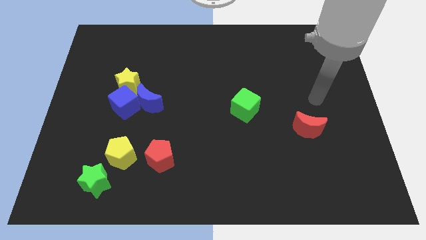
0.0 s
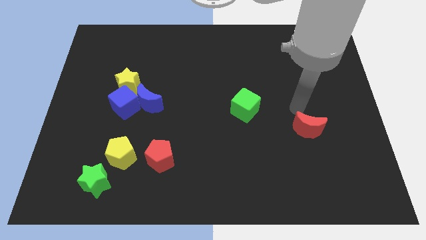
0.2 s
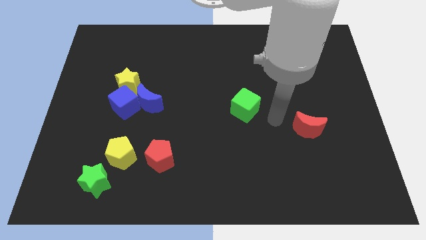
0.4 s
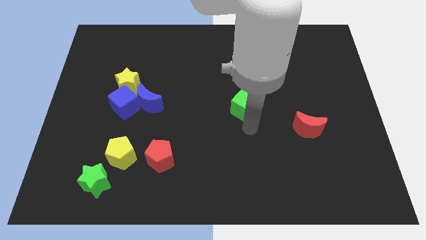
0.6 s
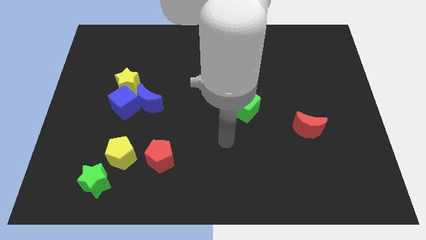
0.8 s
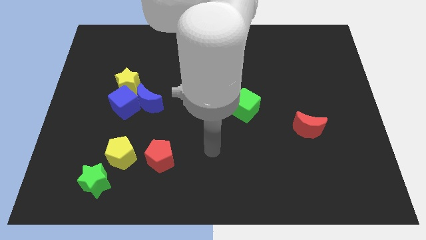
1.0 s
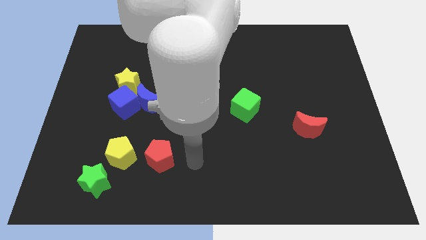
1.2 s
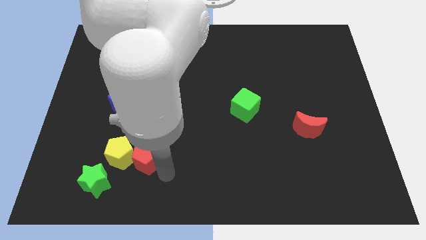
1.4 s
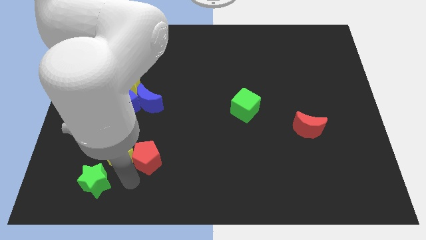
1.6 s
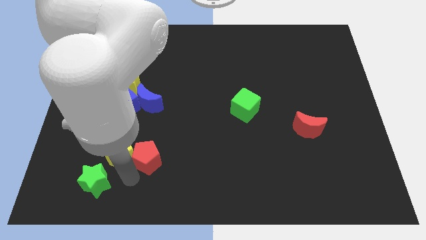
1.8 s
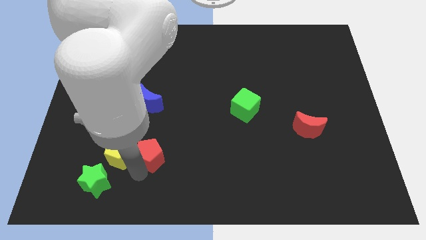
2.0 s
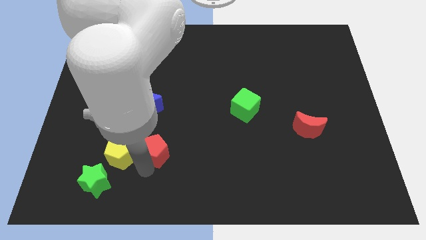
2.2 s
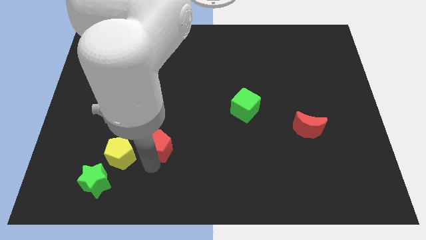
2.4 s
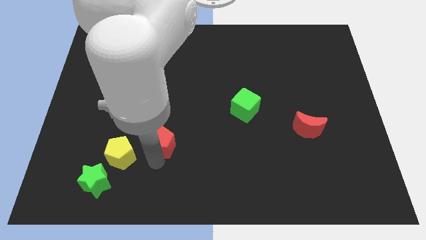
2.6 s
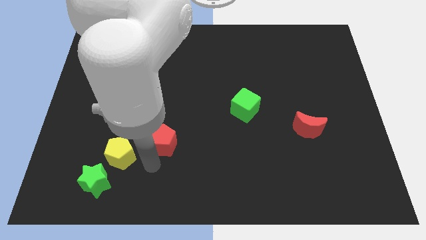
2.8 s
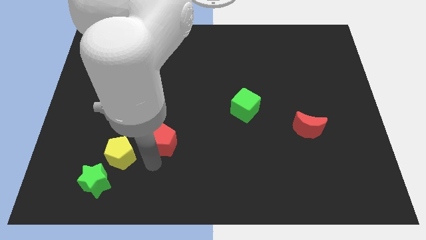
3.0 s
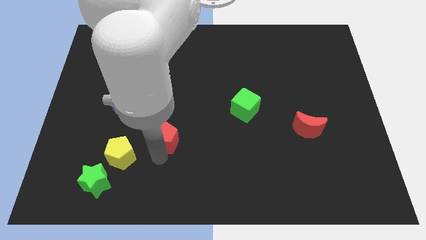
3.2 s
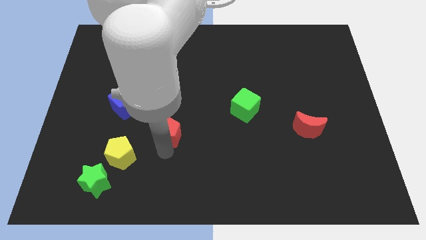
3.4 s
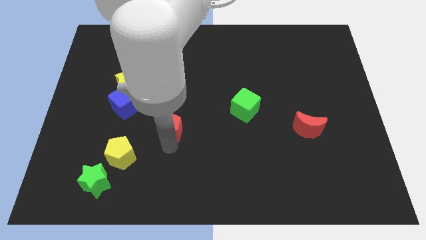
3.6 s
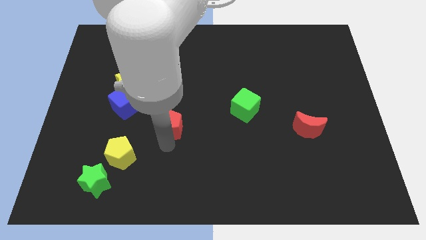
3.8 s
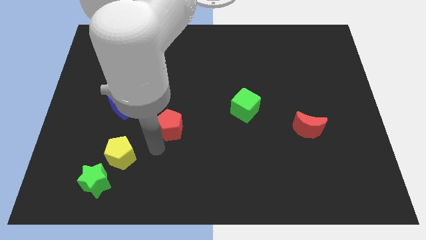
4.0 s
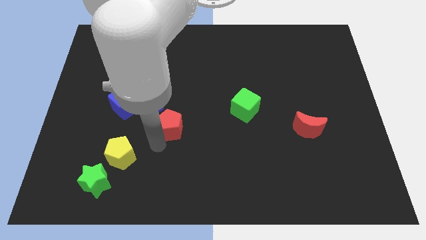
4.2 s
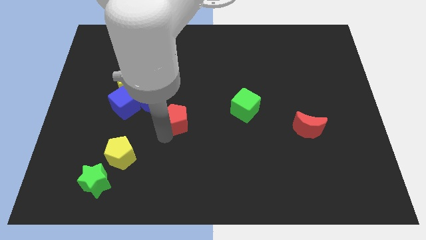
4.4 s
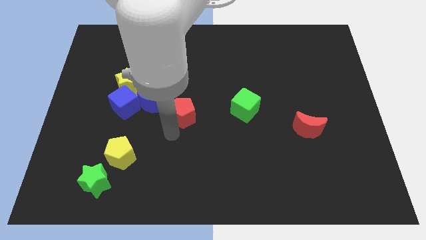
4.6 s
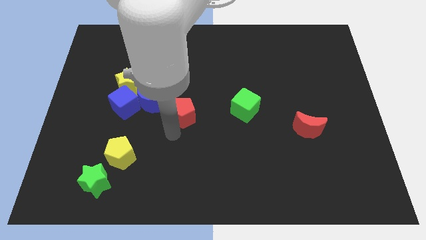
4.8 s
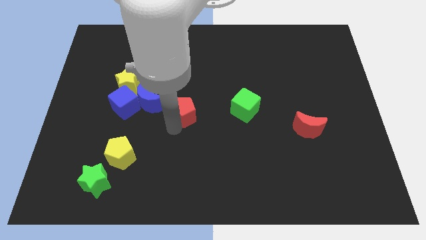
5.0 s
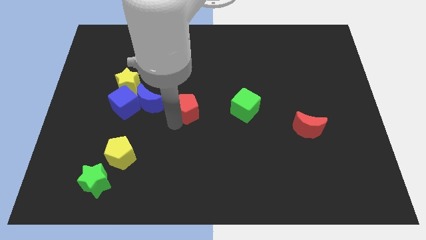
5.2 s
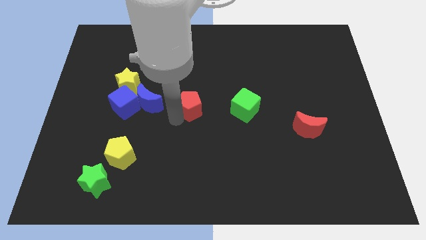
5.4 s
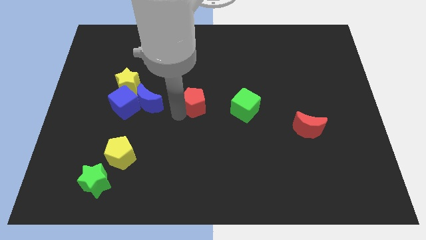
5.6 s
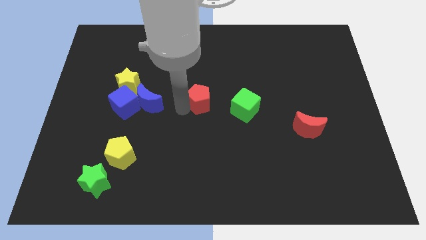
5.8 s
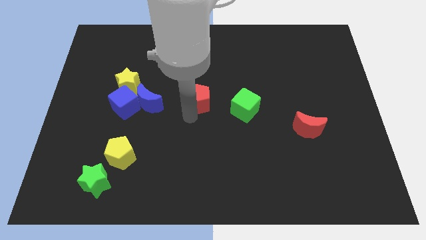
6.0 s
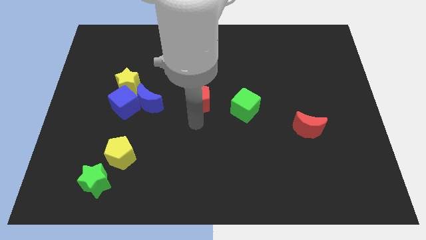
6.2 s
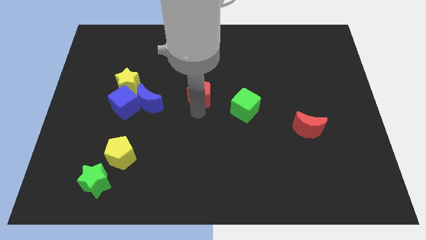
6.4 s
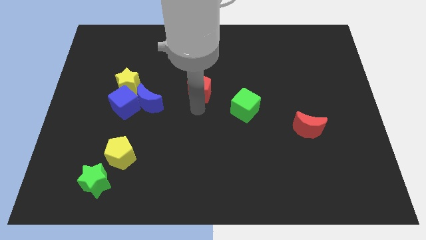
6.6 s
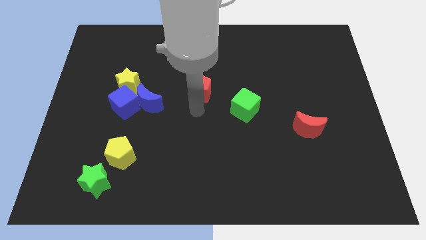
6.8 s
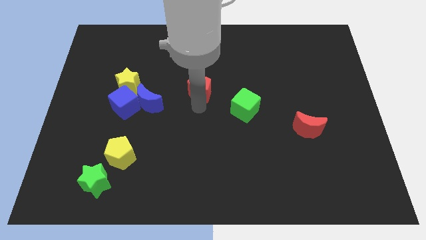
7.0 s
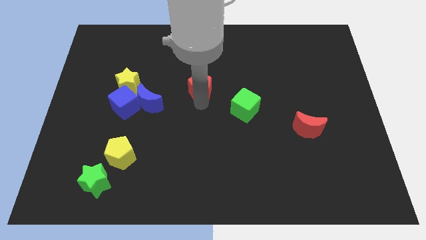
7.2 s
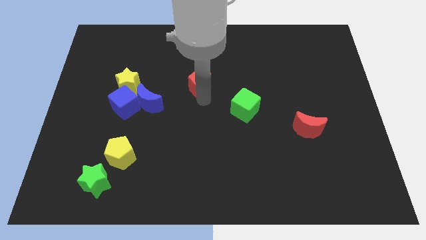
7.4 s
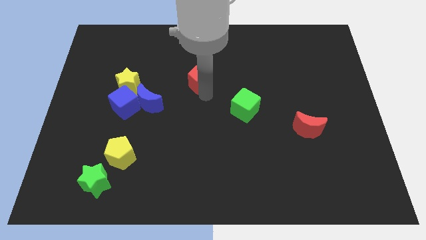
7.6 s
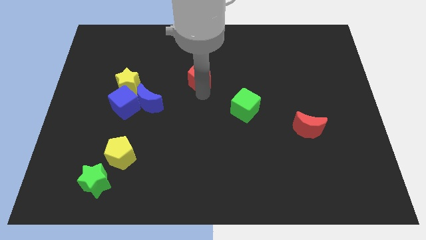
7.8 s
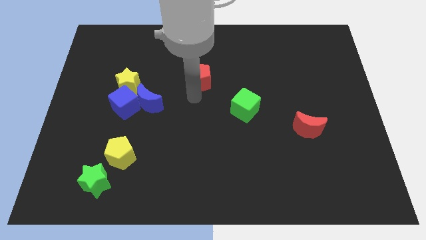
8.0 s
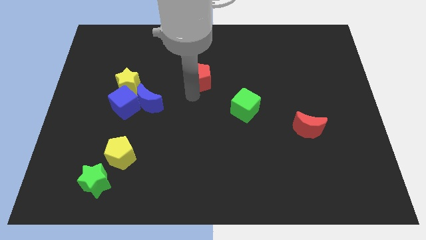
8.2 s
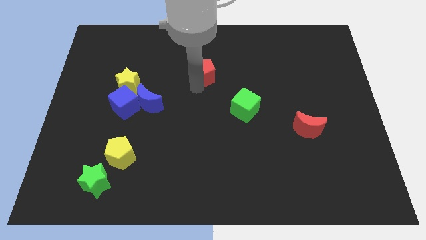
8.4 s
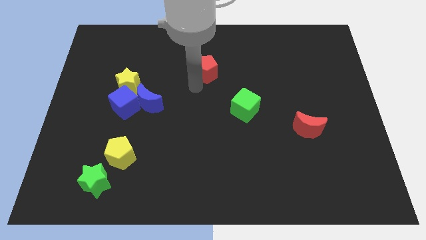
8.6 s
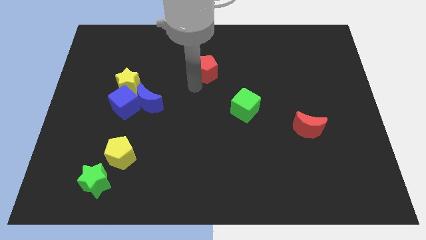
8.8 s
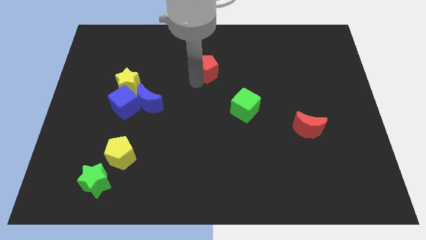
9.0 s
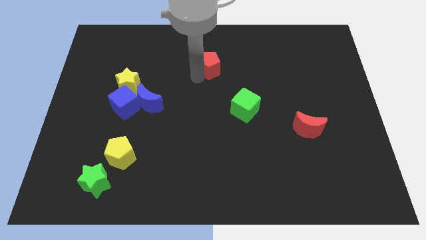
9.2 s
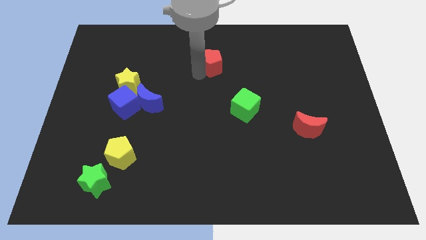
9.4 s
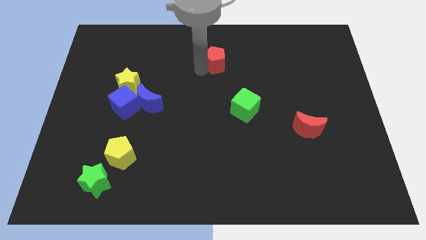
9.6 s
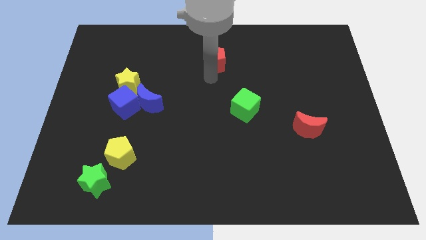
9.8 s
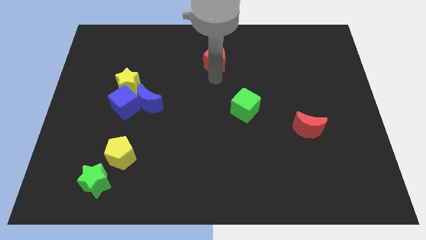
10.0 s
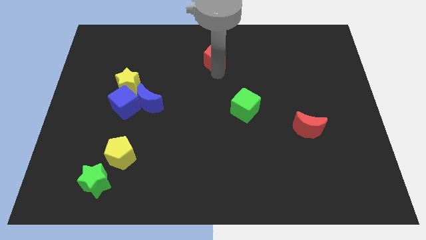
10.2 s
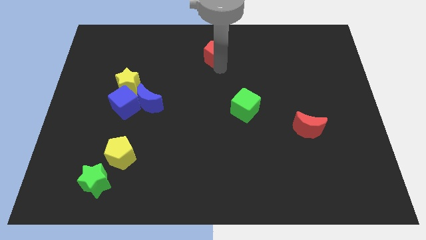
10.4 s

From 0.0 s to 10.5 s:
move the red pentagon to the top

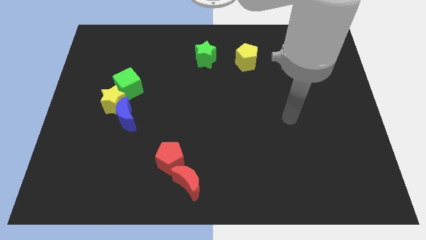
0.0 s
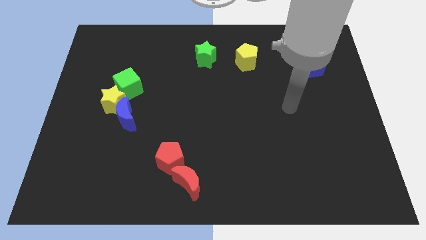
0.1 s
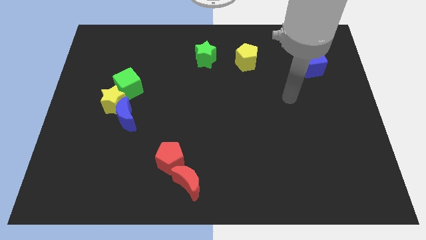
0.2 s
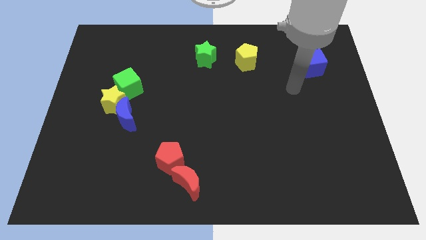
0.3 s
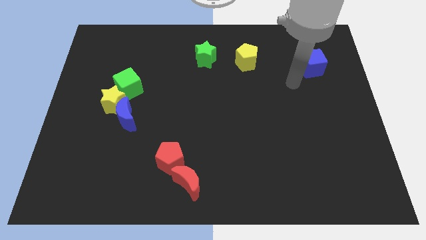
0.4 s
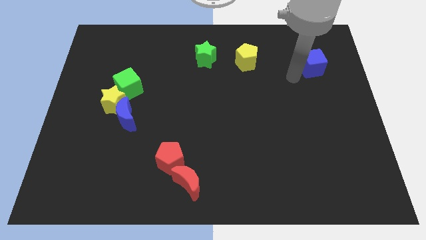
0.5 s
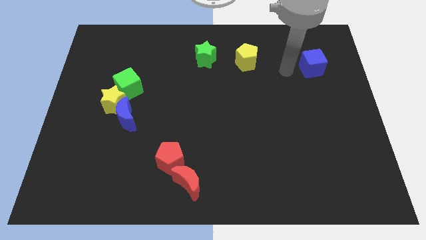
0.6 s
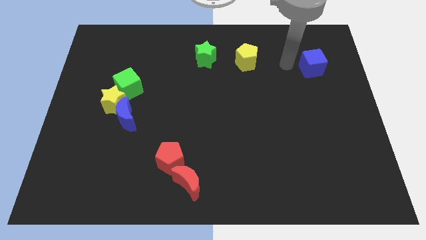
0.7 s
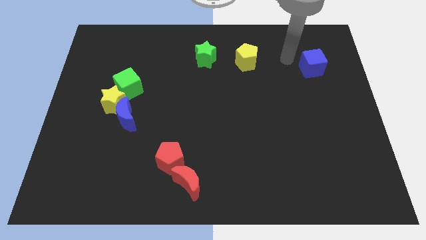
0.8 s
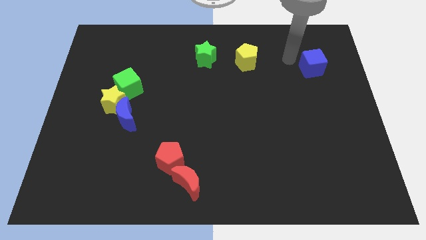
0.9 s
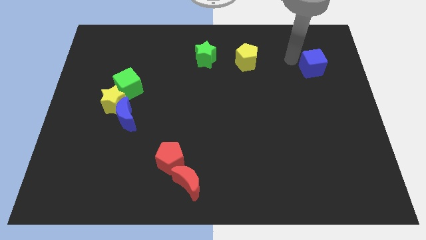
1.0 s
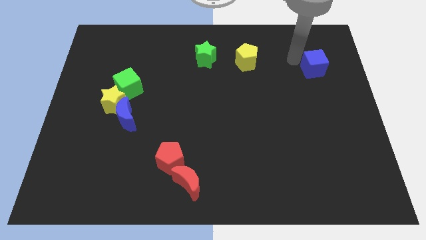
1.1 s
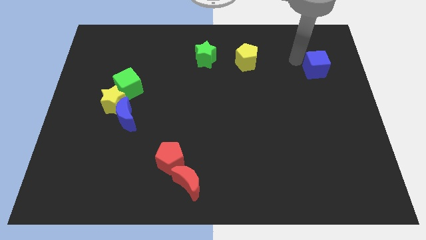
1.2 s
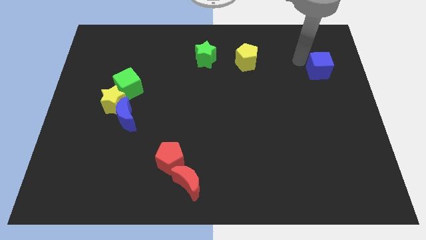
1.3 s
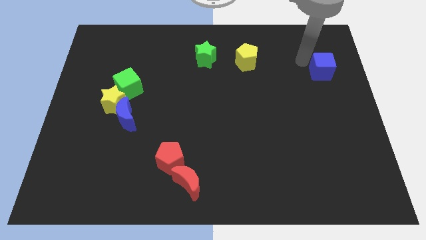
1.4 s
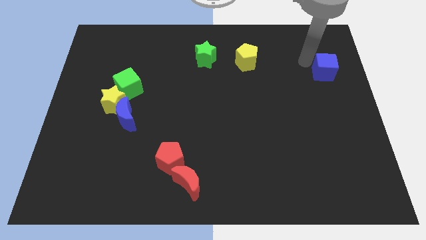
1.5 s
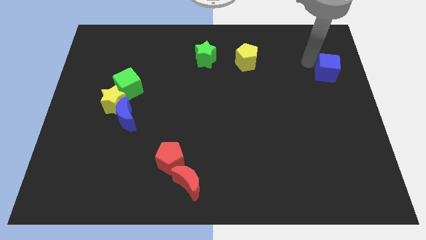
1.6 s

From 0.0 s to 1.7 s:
move the blue cube to the center right

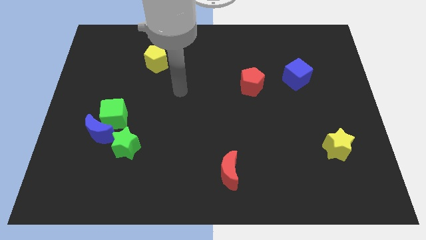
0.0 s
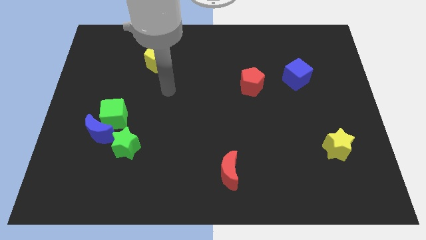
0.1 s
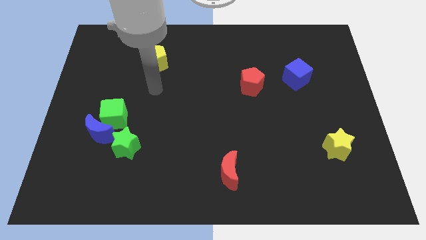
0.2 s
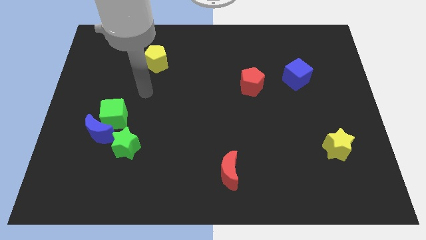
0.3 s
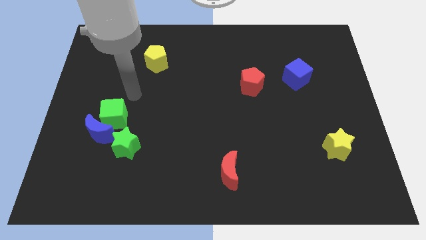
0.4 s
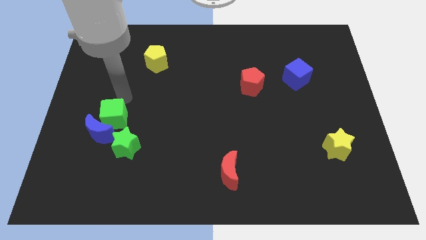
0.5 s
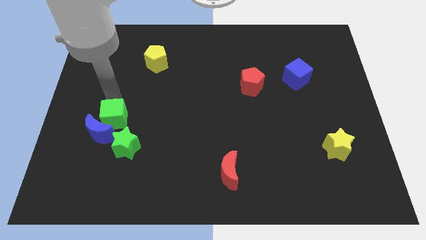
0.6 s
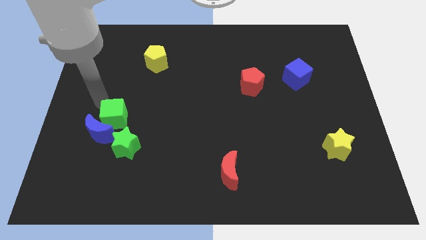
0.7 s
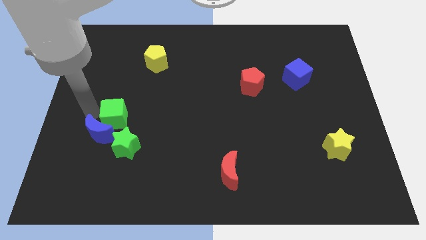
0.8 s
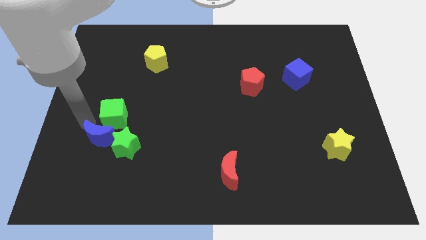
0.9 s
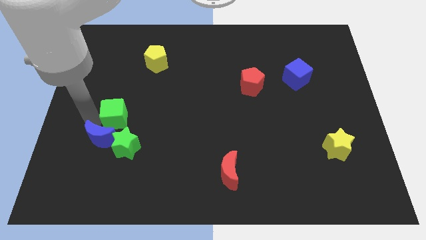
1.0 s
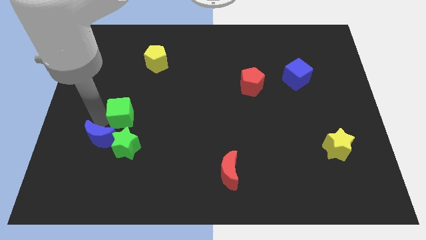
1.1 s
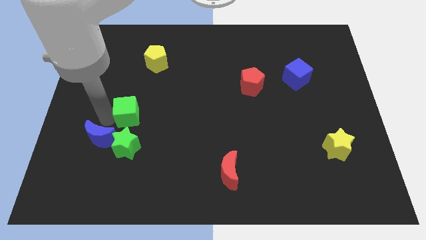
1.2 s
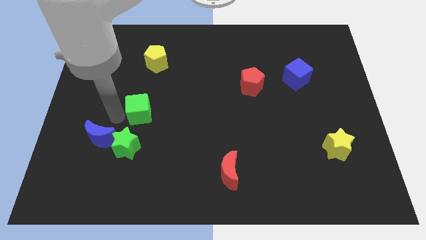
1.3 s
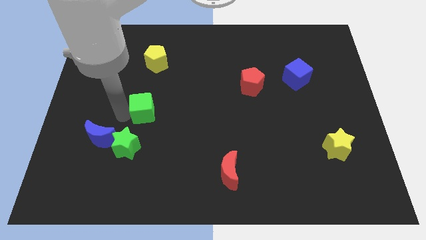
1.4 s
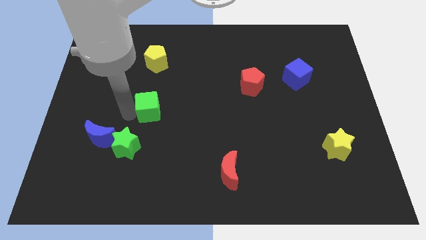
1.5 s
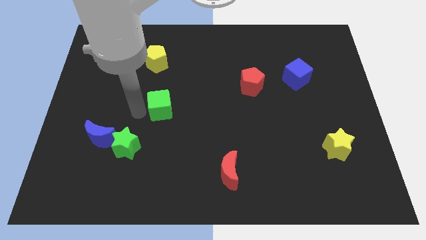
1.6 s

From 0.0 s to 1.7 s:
put the green cube to the middle
